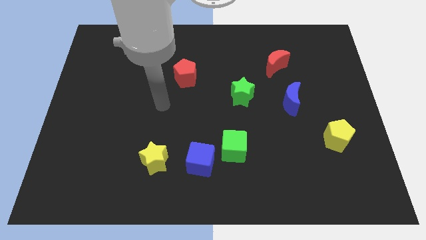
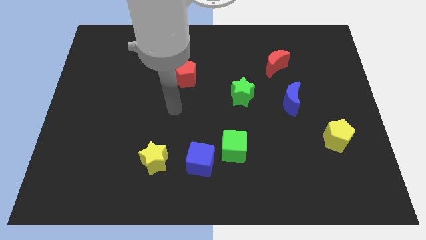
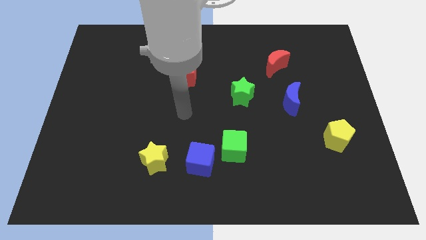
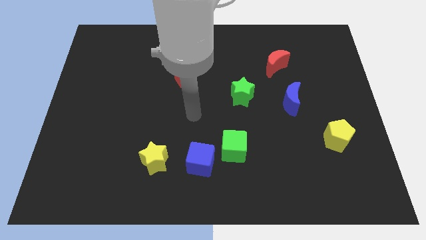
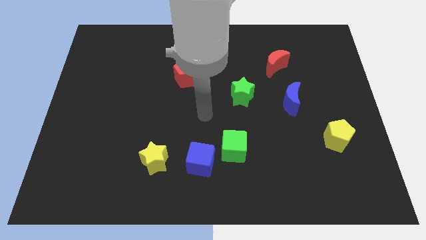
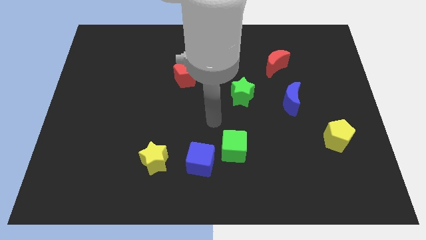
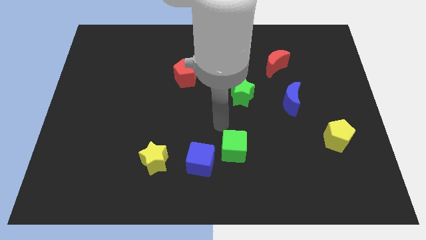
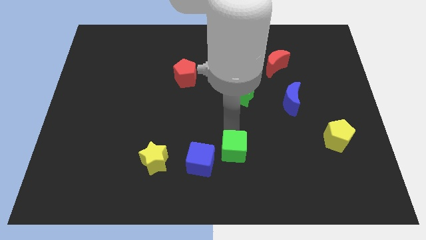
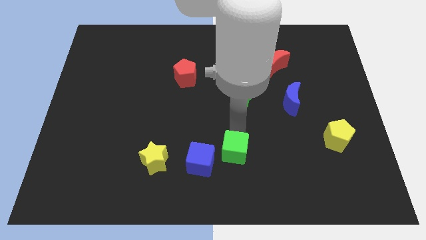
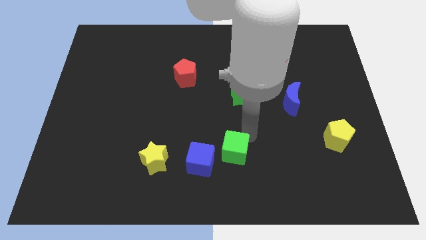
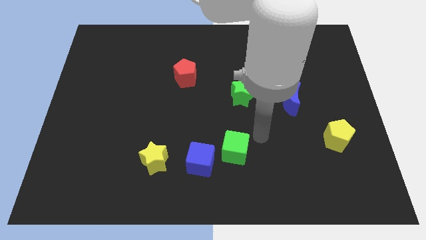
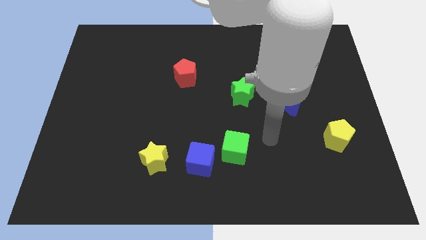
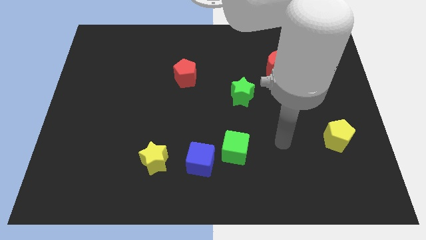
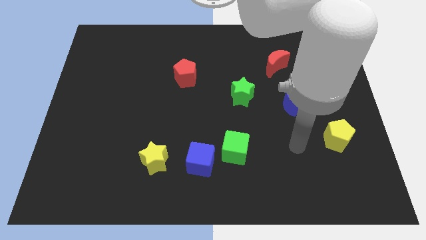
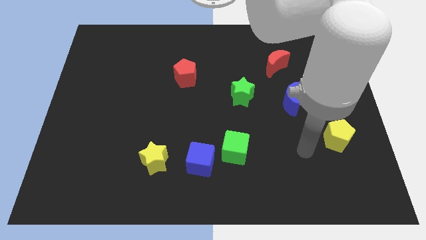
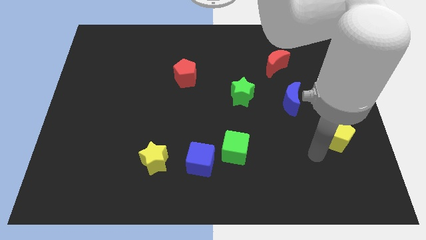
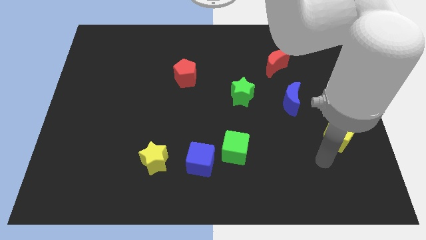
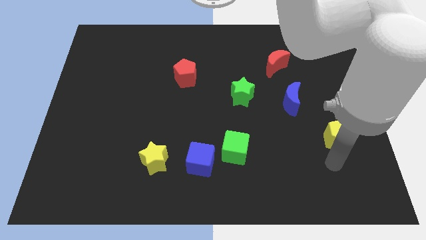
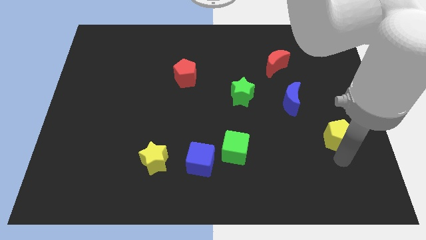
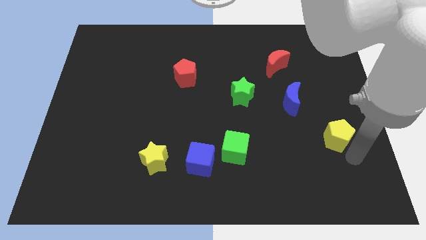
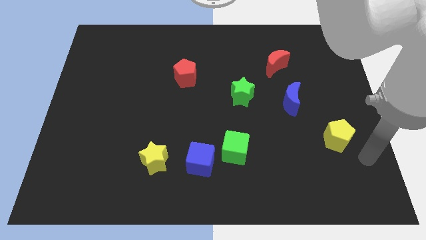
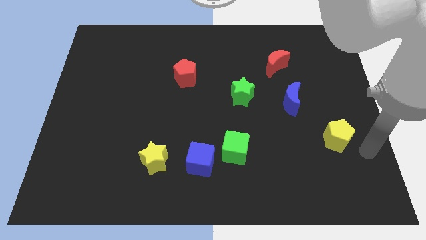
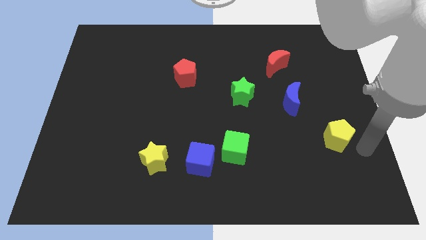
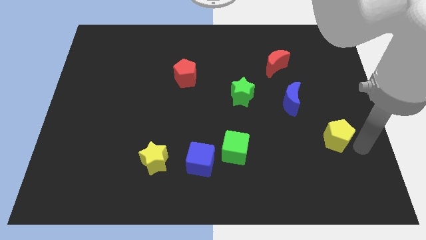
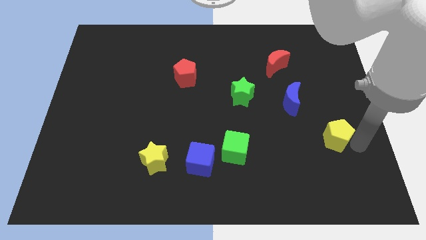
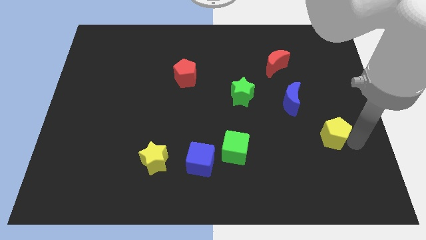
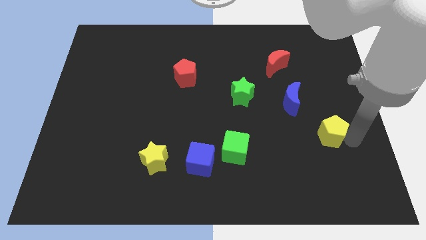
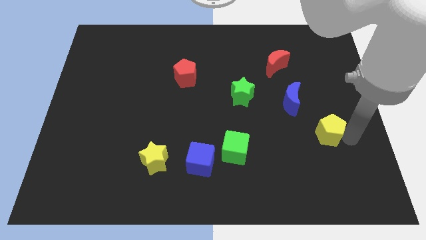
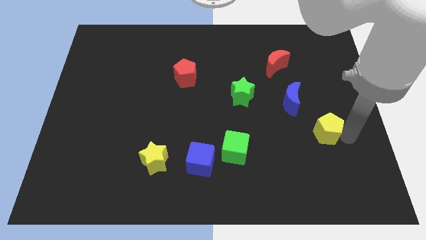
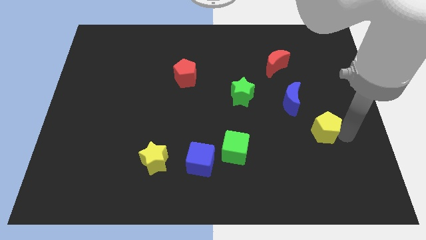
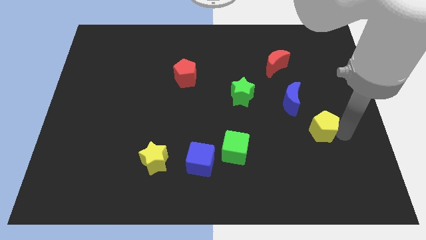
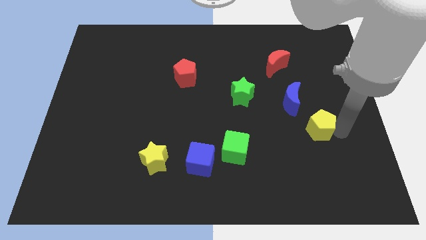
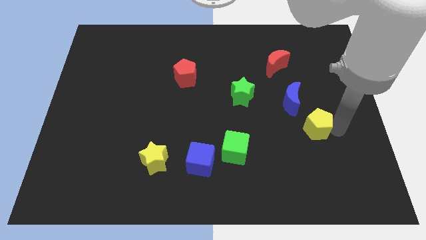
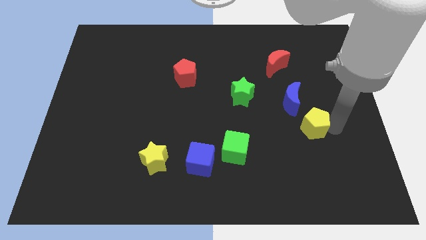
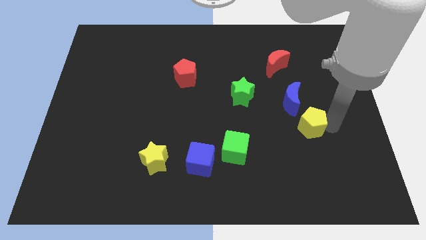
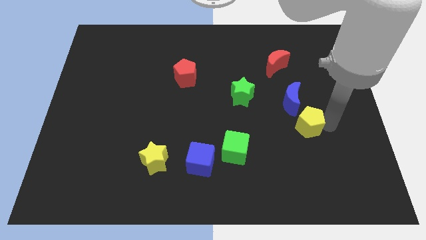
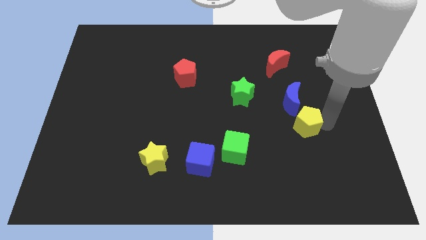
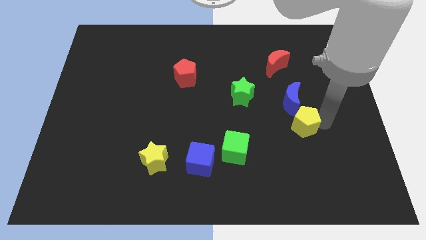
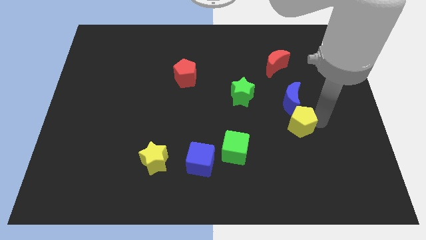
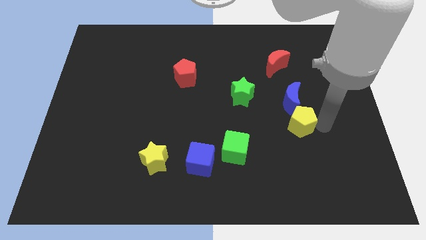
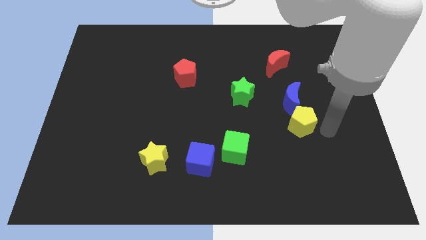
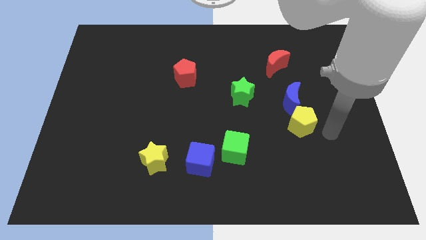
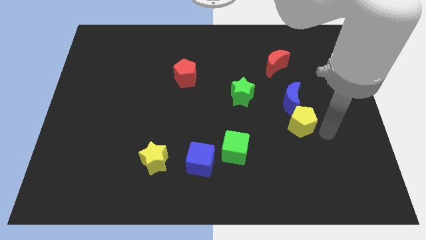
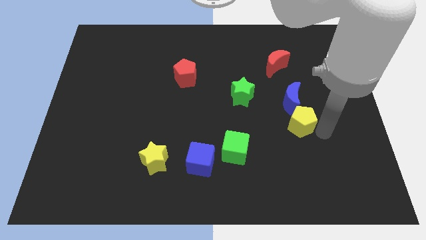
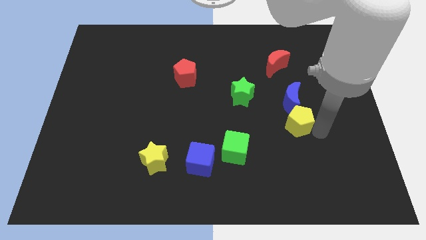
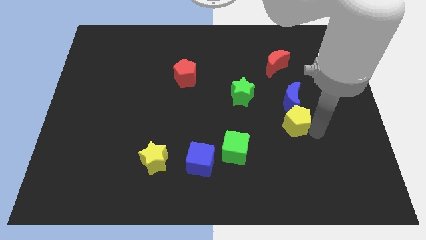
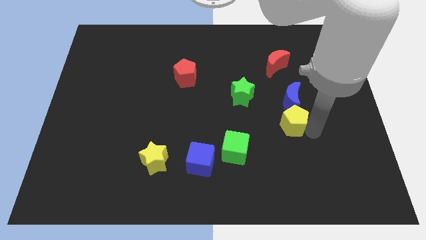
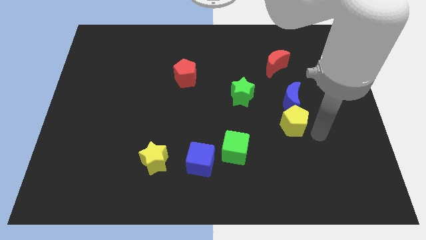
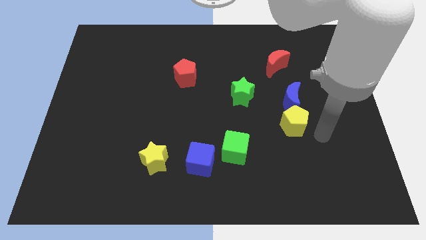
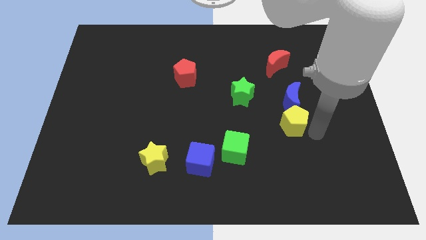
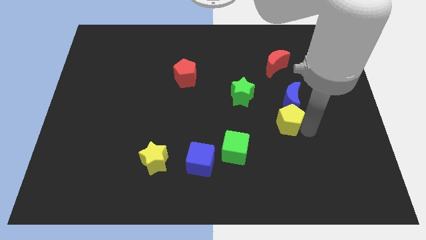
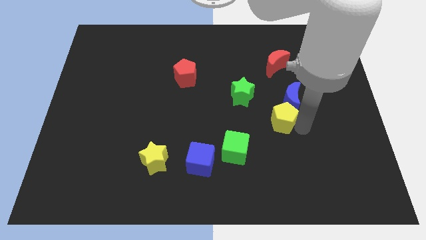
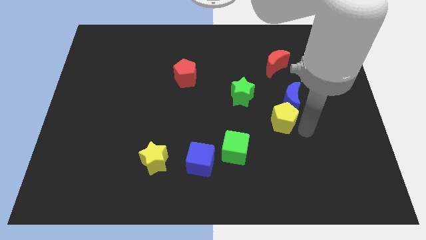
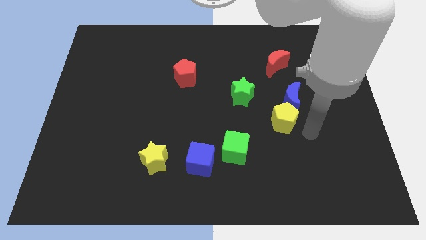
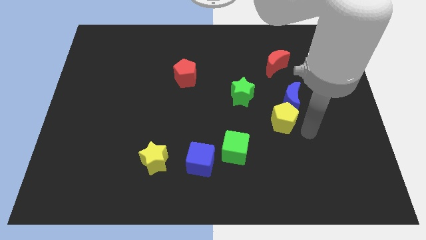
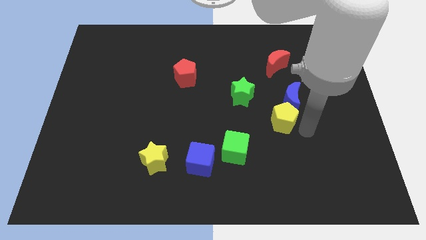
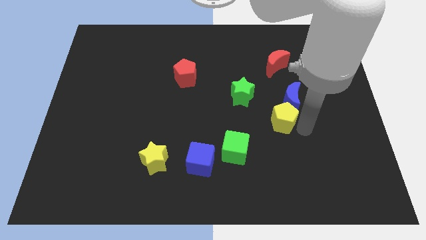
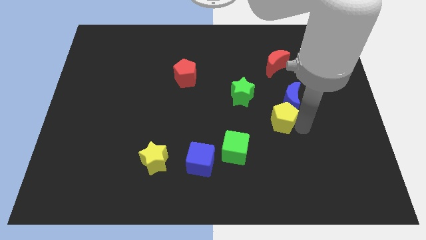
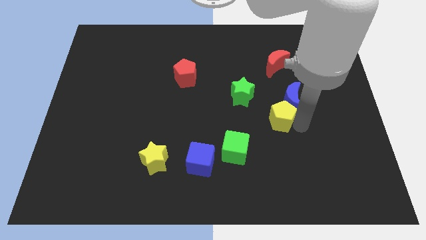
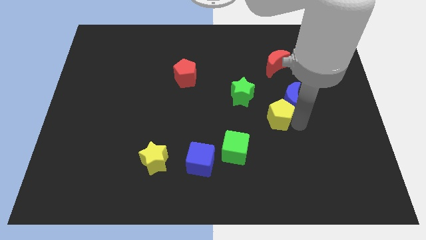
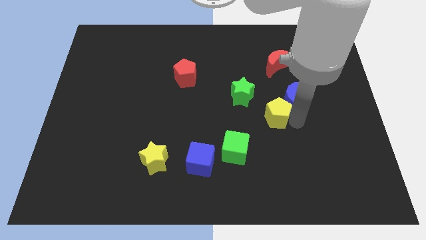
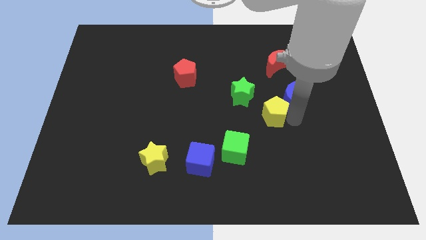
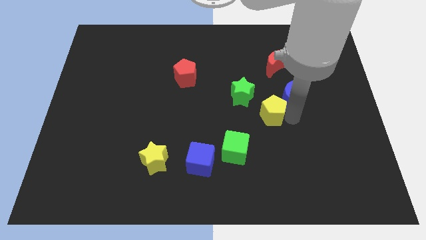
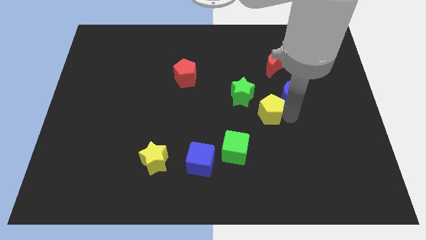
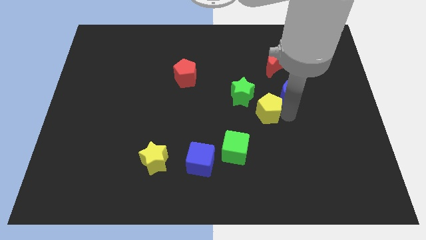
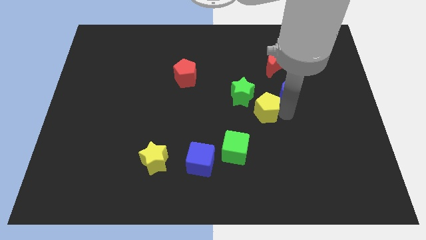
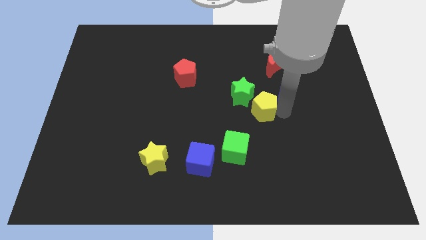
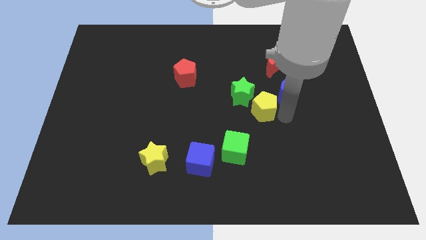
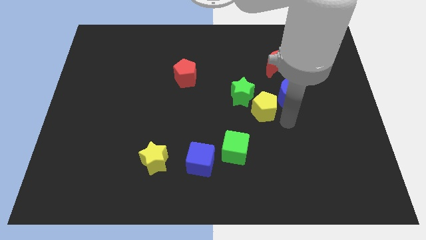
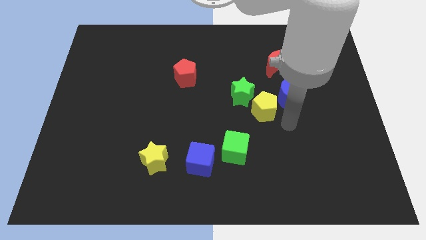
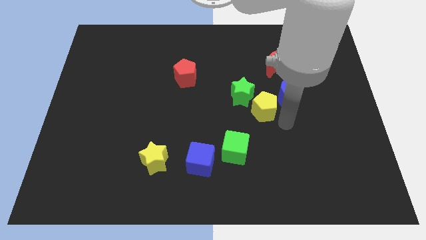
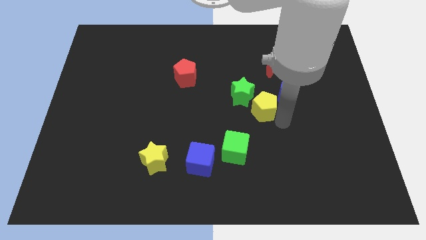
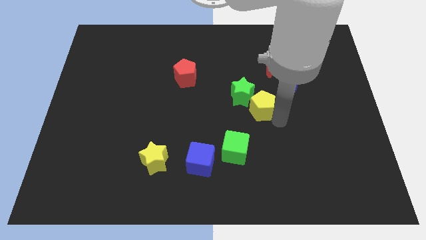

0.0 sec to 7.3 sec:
slide the yellow pentagon close to the green star

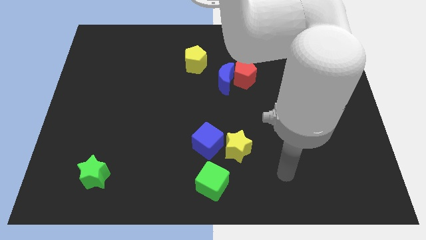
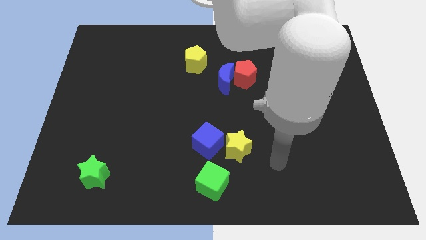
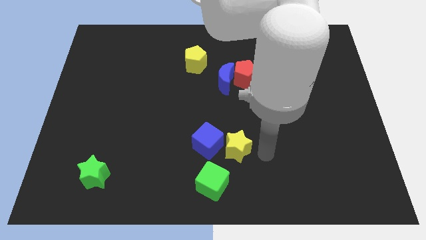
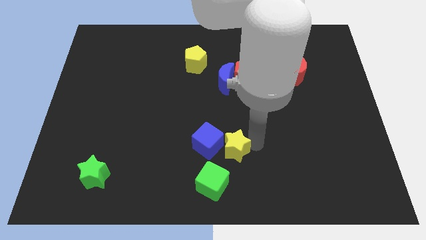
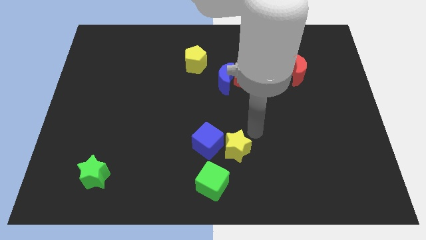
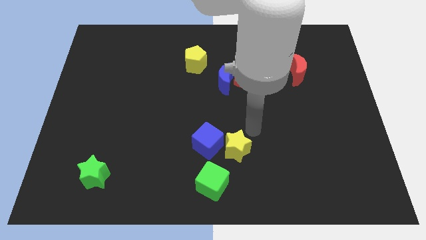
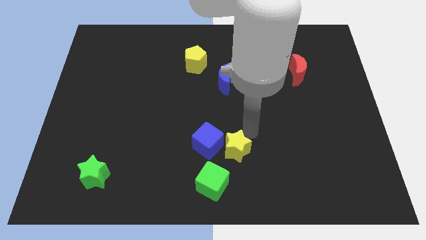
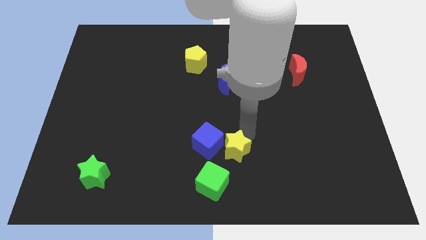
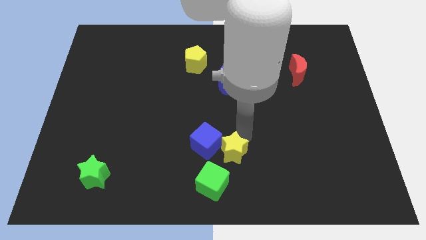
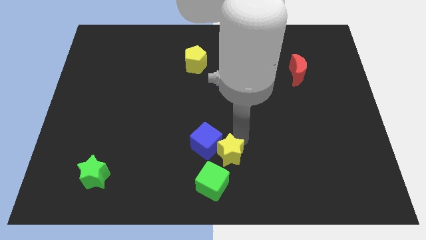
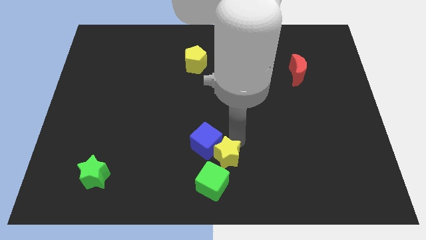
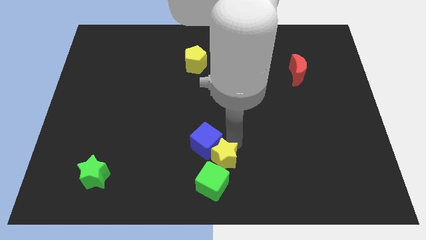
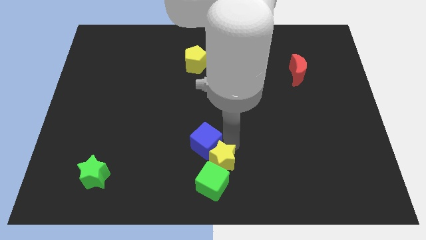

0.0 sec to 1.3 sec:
slide the yellow star to the green cube
